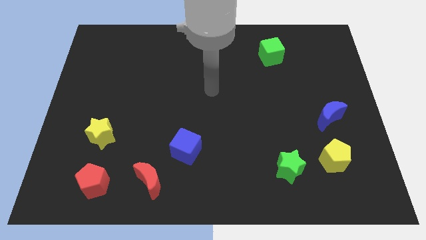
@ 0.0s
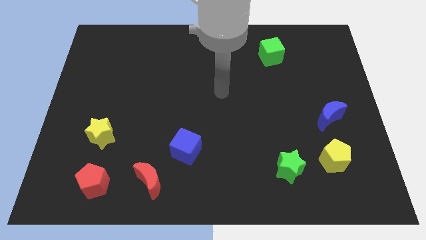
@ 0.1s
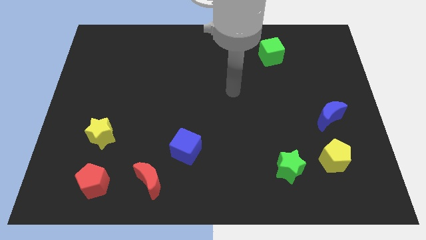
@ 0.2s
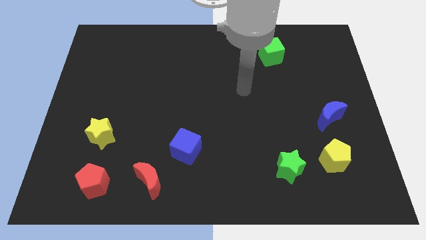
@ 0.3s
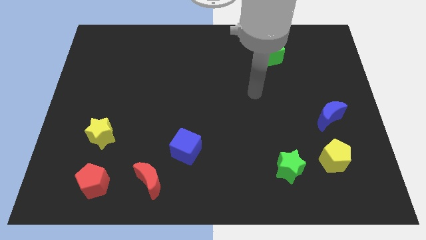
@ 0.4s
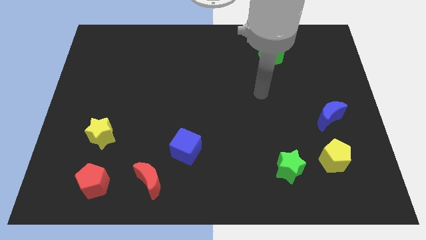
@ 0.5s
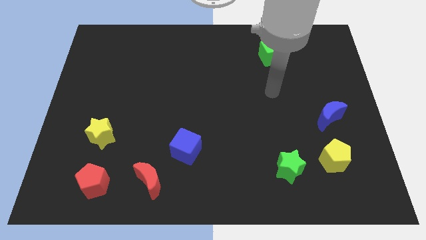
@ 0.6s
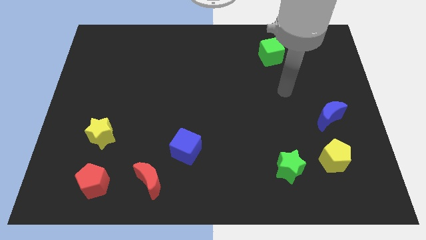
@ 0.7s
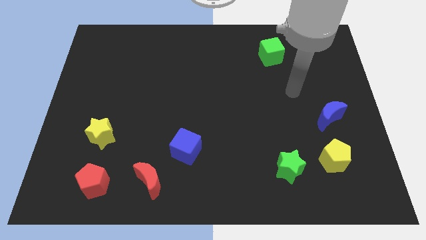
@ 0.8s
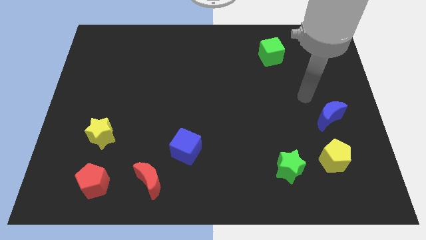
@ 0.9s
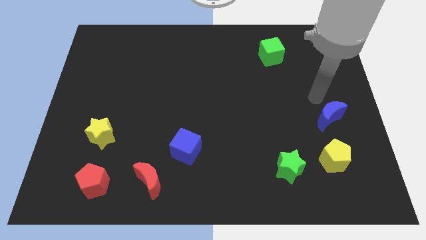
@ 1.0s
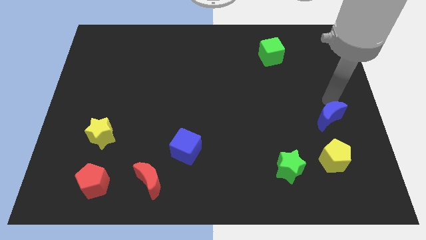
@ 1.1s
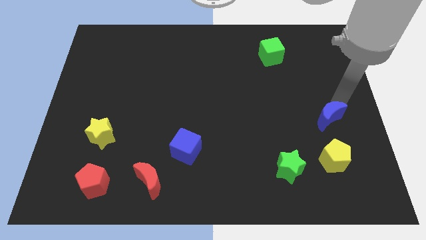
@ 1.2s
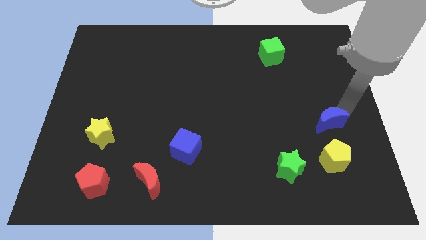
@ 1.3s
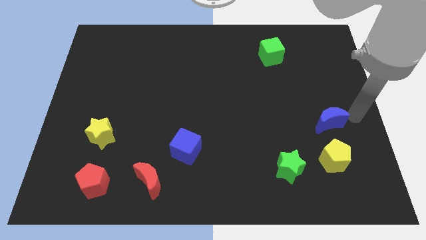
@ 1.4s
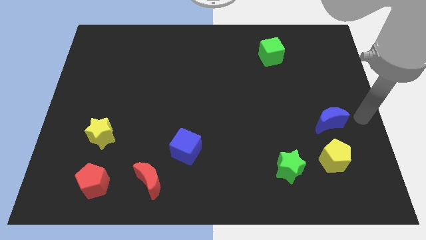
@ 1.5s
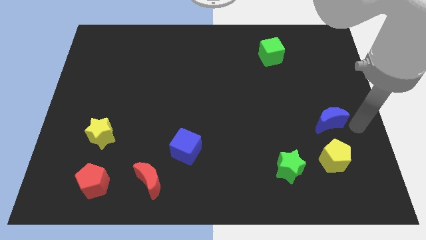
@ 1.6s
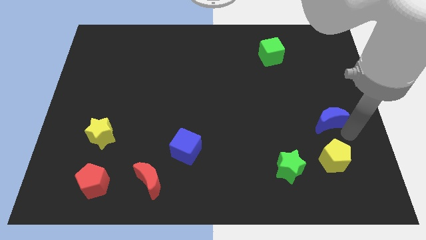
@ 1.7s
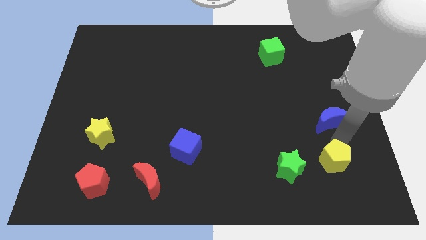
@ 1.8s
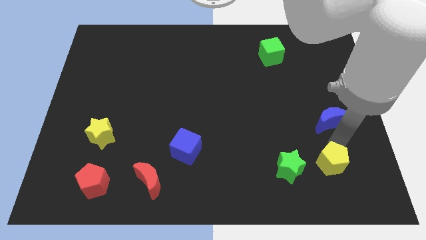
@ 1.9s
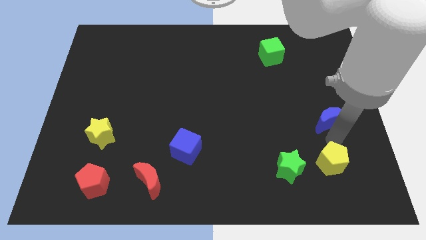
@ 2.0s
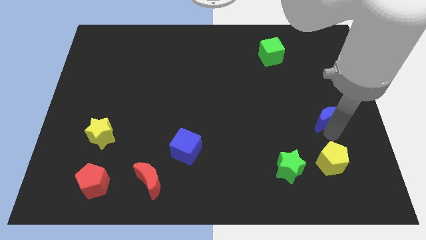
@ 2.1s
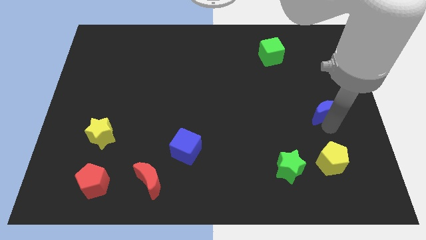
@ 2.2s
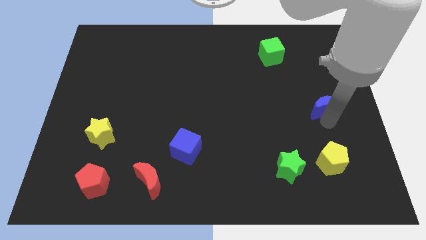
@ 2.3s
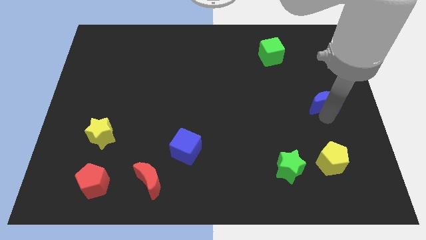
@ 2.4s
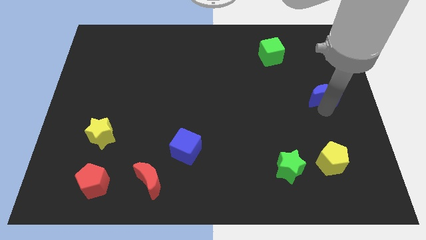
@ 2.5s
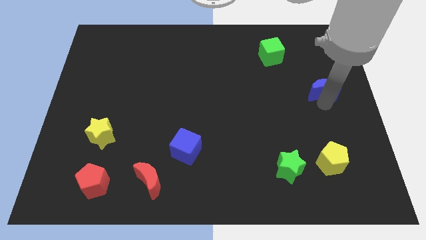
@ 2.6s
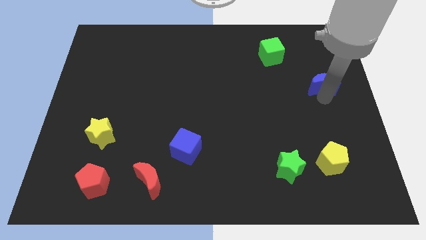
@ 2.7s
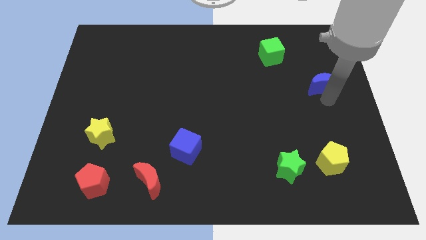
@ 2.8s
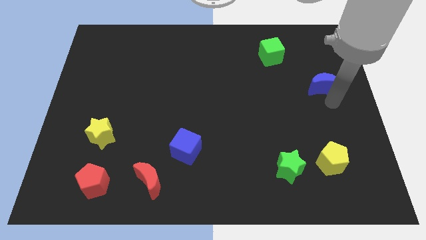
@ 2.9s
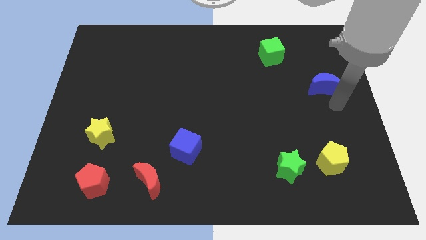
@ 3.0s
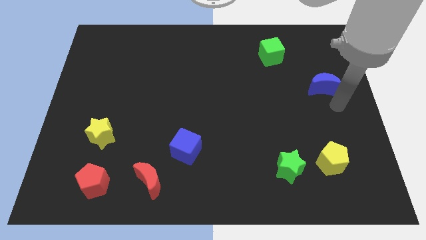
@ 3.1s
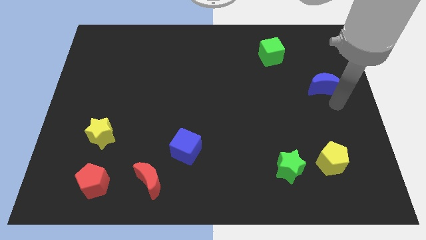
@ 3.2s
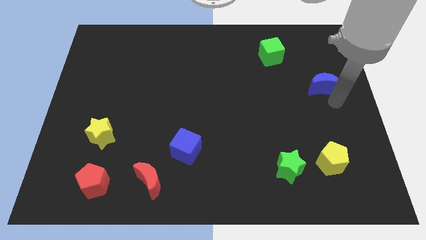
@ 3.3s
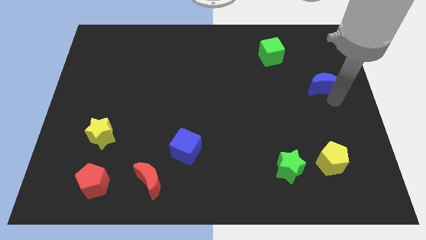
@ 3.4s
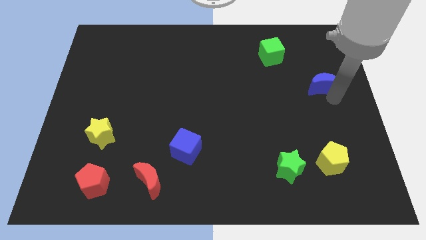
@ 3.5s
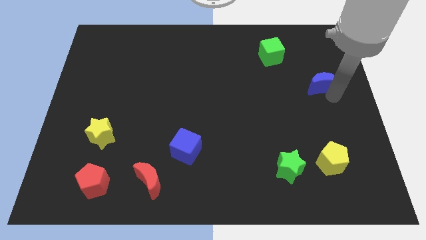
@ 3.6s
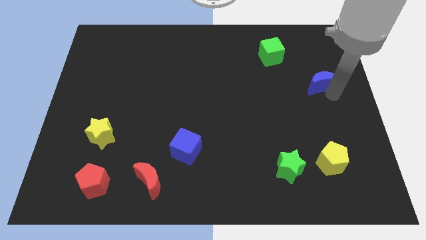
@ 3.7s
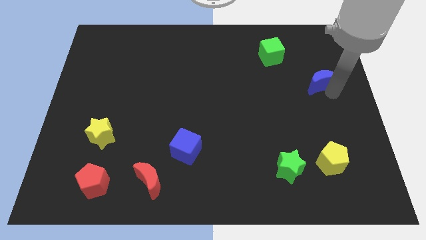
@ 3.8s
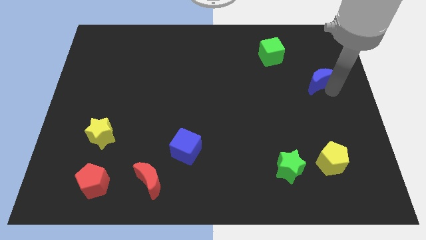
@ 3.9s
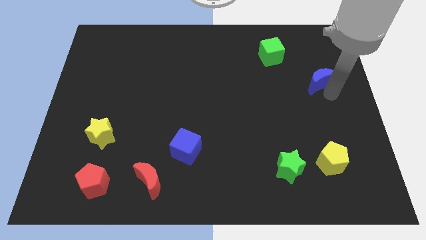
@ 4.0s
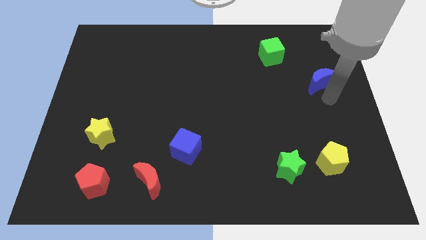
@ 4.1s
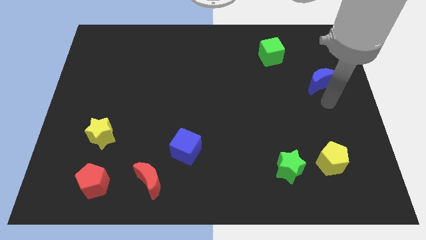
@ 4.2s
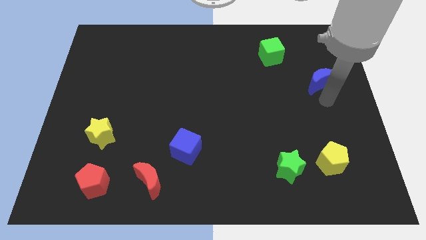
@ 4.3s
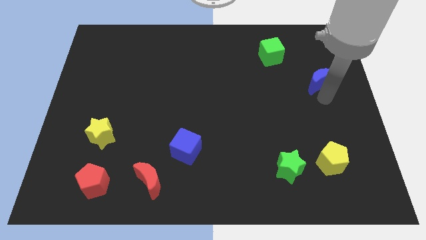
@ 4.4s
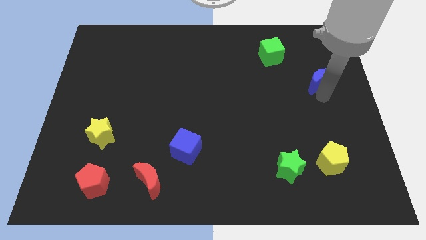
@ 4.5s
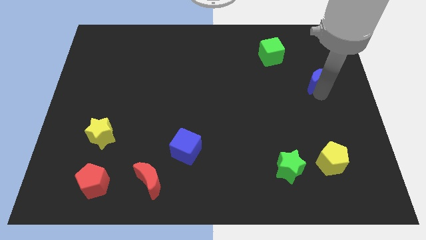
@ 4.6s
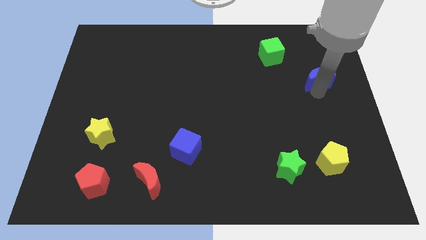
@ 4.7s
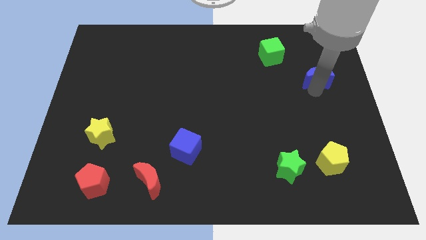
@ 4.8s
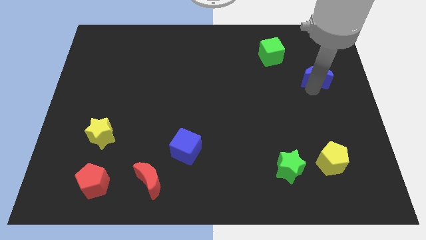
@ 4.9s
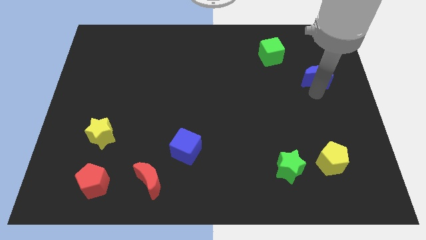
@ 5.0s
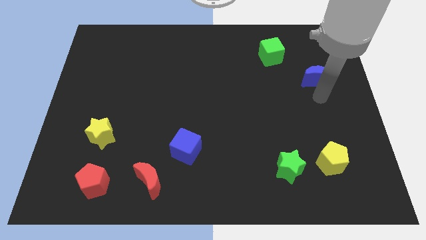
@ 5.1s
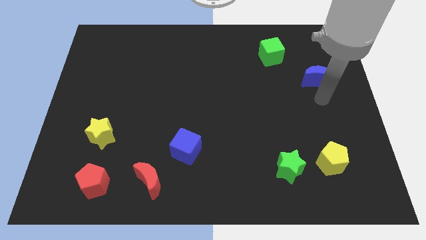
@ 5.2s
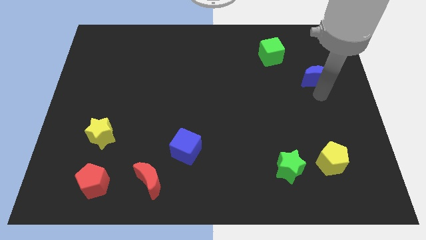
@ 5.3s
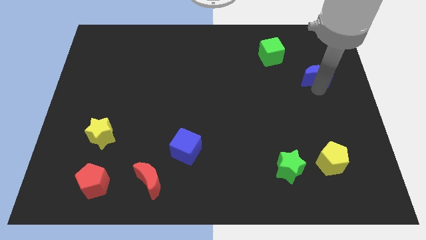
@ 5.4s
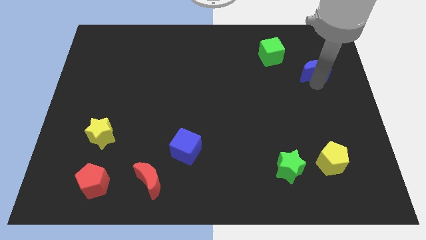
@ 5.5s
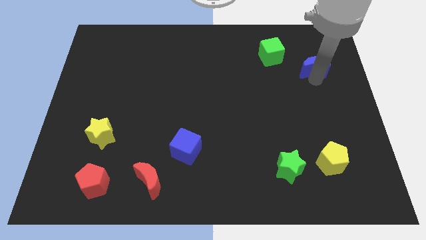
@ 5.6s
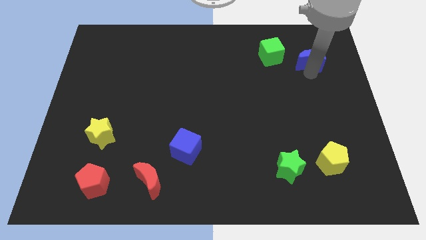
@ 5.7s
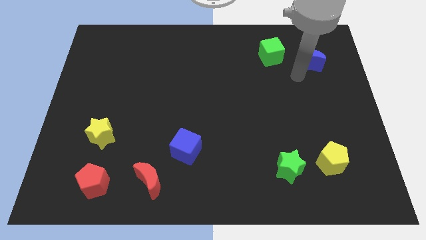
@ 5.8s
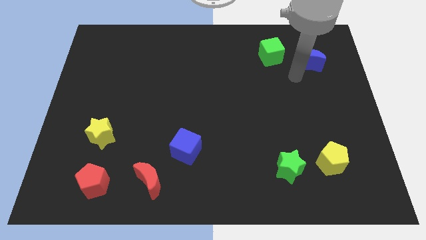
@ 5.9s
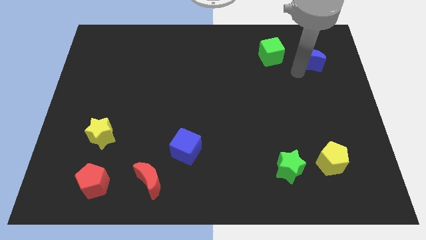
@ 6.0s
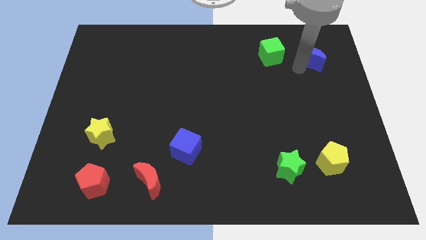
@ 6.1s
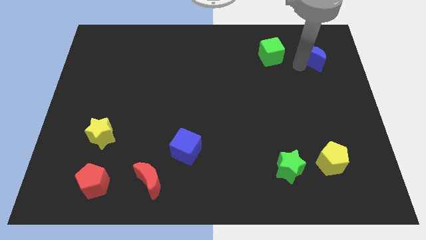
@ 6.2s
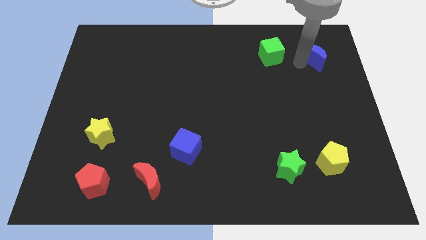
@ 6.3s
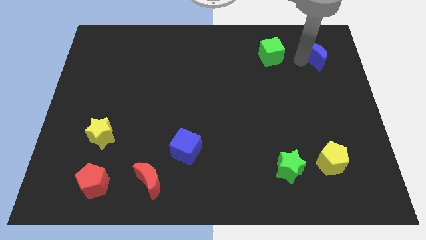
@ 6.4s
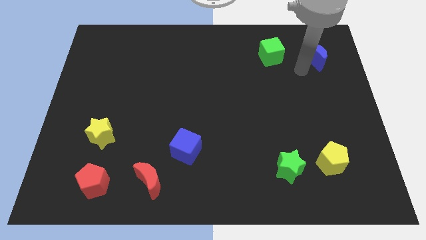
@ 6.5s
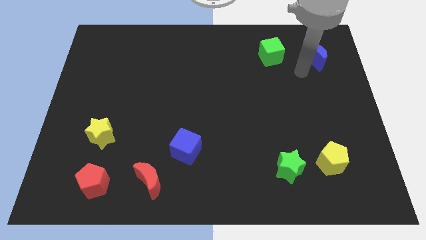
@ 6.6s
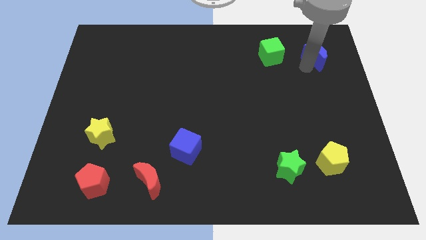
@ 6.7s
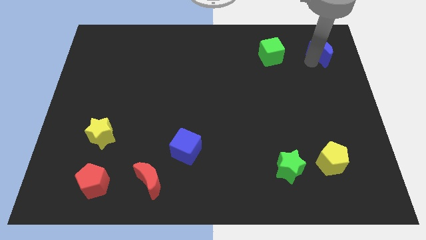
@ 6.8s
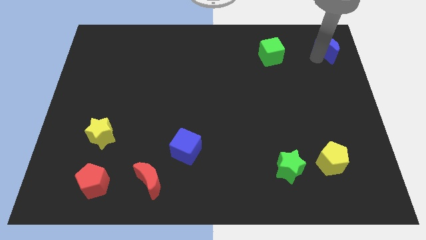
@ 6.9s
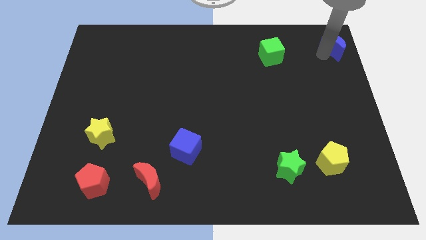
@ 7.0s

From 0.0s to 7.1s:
slide the blue moon to the top right
